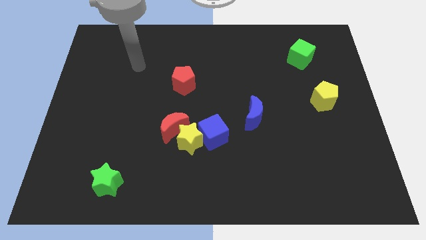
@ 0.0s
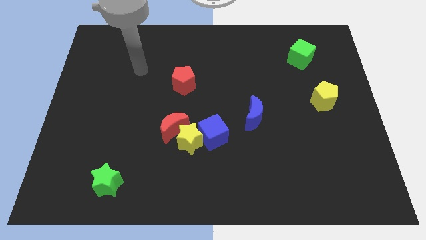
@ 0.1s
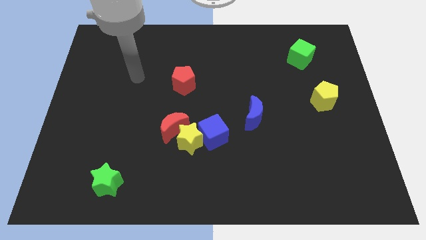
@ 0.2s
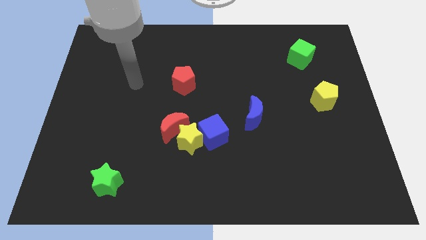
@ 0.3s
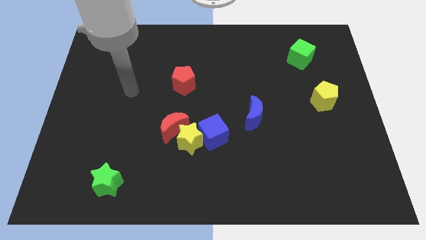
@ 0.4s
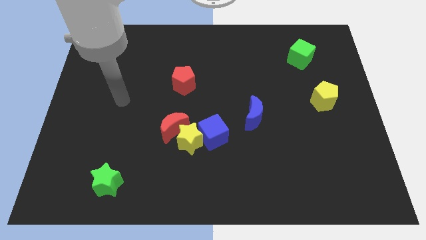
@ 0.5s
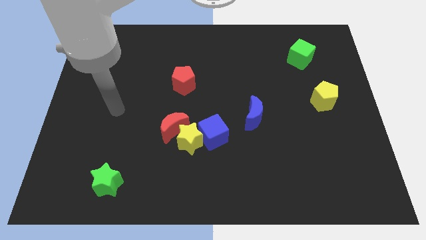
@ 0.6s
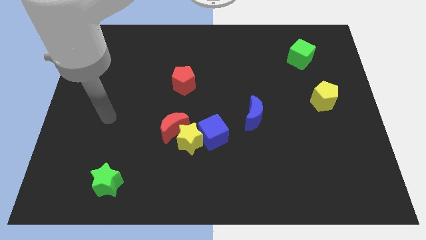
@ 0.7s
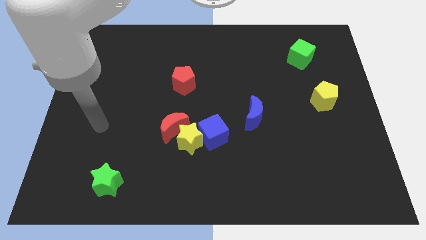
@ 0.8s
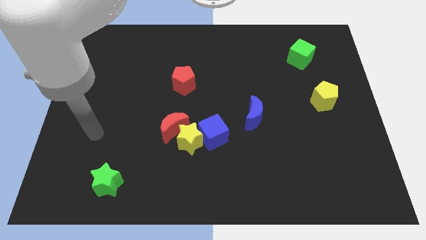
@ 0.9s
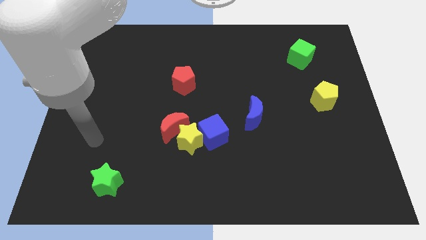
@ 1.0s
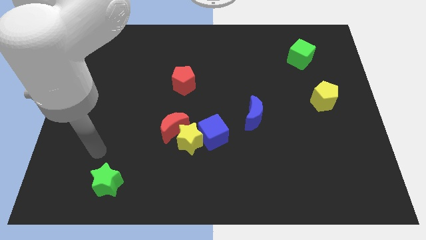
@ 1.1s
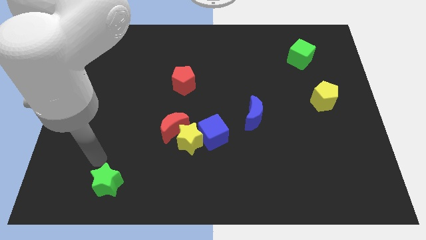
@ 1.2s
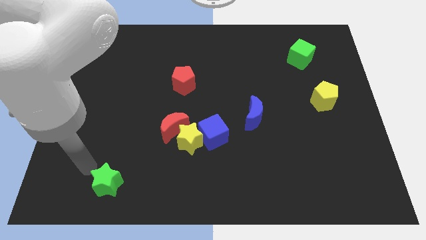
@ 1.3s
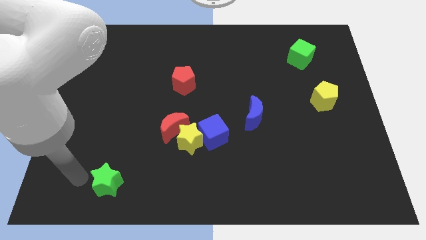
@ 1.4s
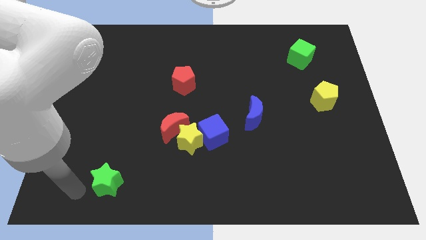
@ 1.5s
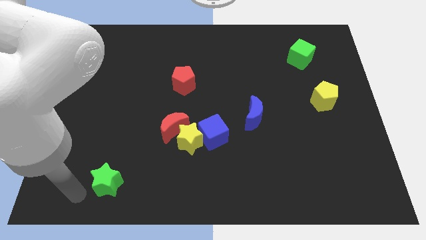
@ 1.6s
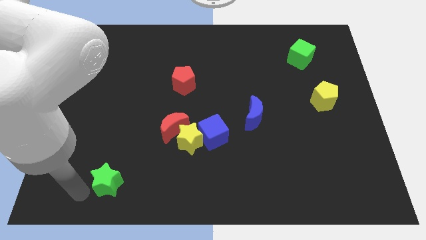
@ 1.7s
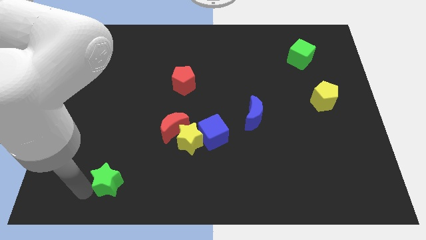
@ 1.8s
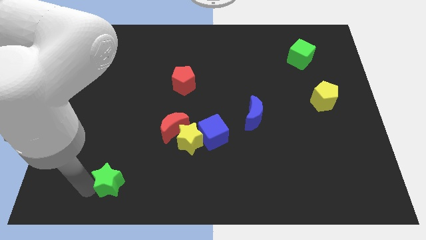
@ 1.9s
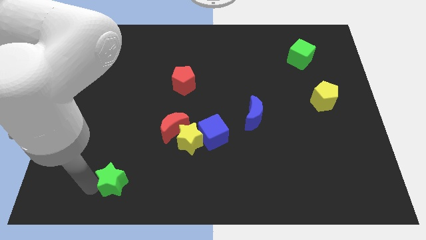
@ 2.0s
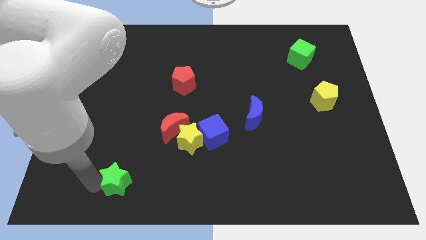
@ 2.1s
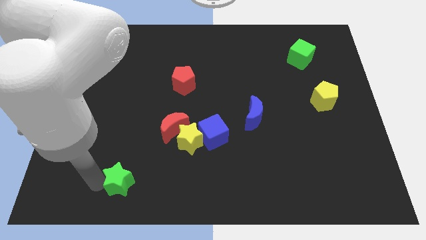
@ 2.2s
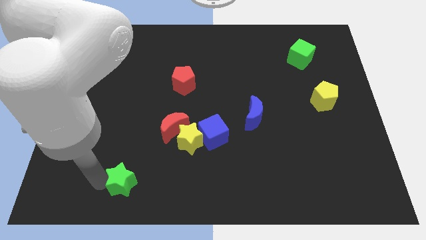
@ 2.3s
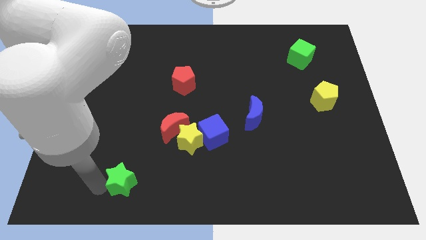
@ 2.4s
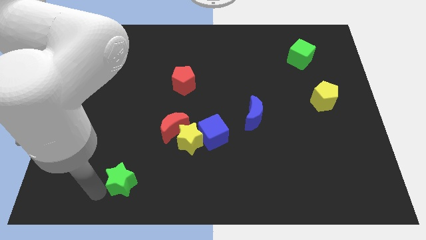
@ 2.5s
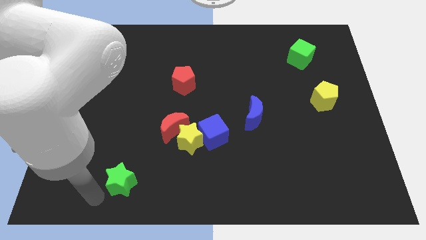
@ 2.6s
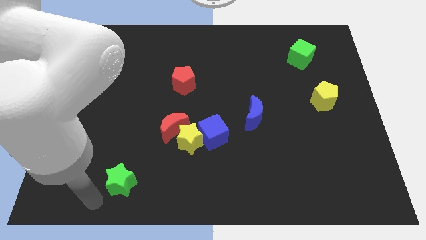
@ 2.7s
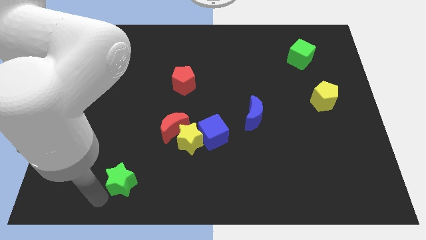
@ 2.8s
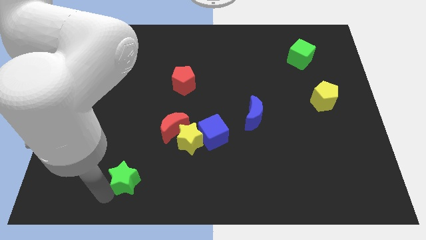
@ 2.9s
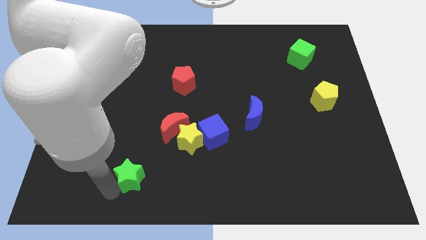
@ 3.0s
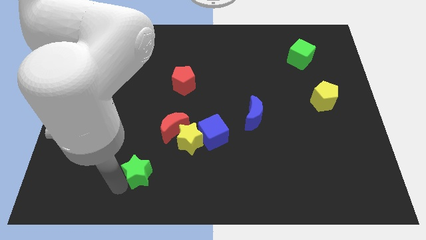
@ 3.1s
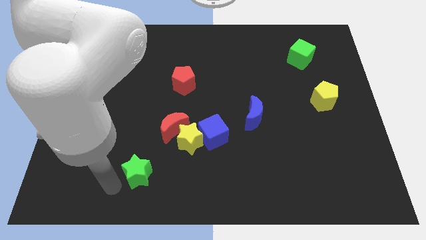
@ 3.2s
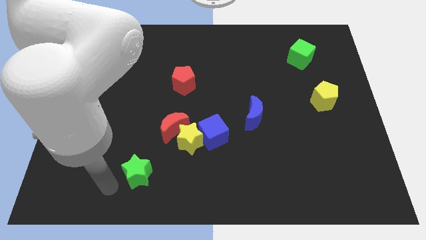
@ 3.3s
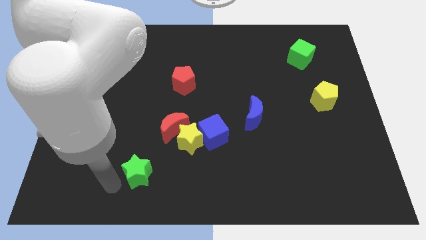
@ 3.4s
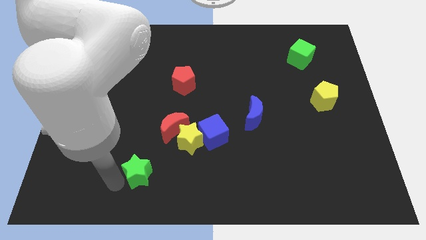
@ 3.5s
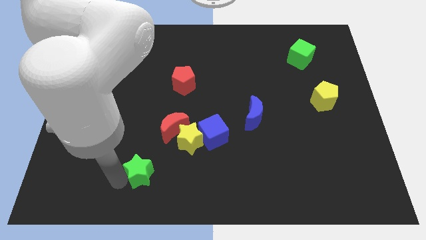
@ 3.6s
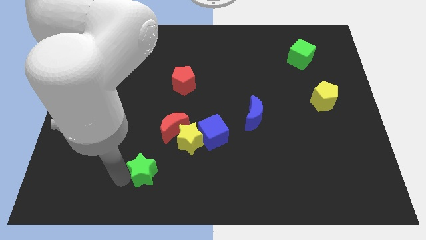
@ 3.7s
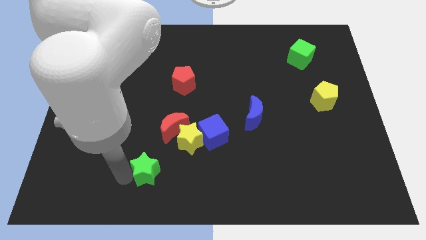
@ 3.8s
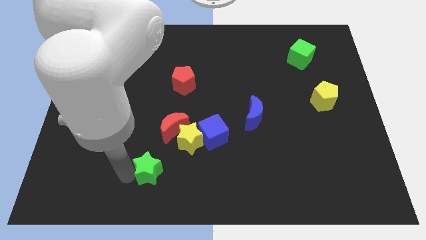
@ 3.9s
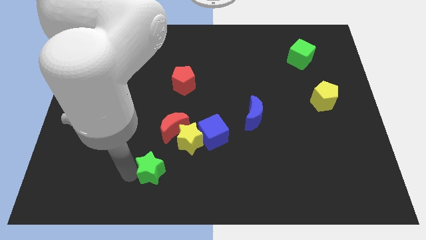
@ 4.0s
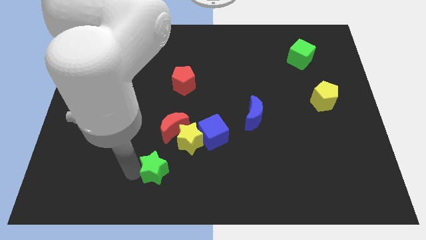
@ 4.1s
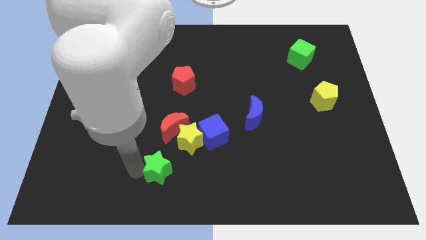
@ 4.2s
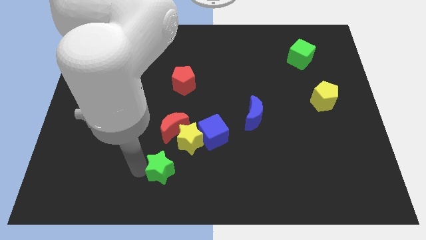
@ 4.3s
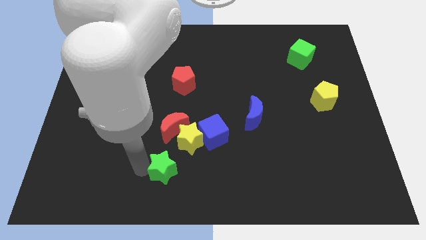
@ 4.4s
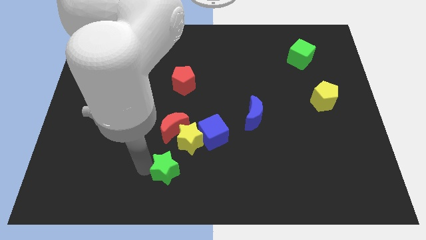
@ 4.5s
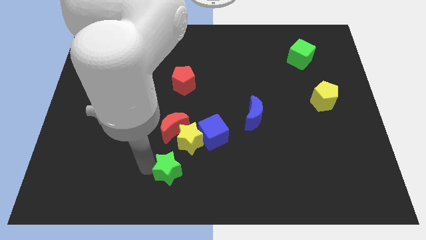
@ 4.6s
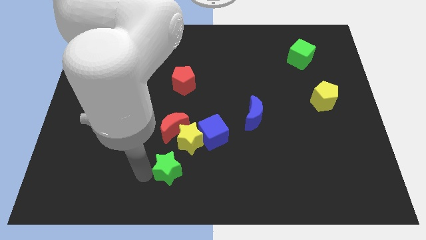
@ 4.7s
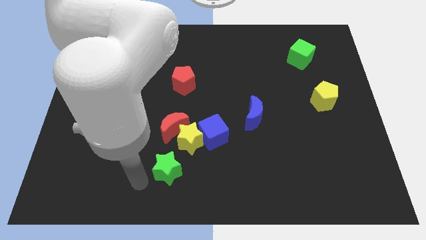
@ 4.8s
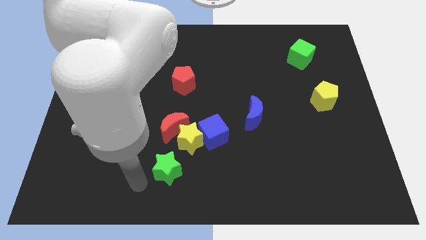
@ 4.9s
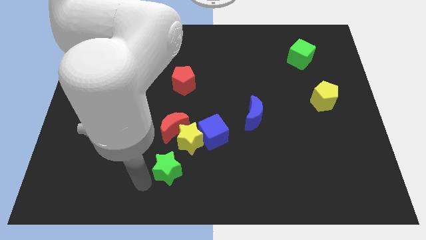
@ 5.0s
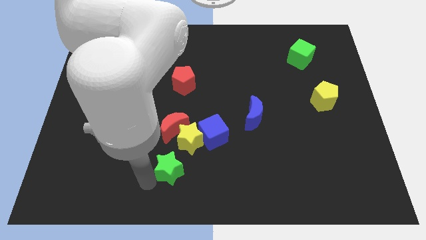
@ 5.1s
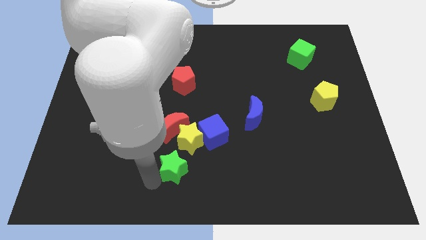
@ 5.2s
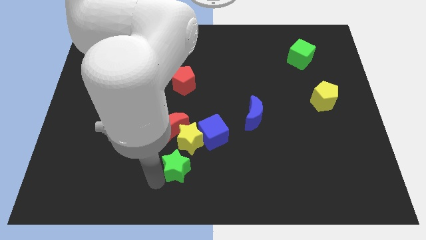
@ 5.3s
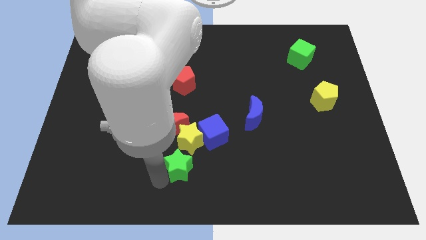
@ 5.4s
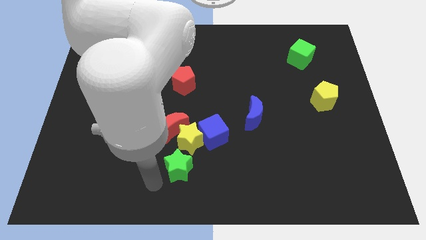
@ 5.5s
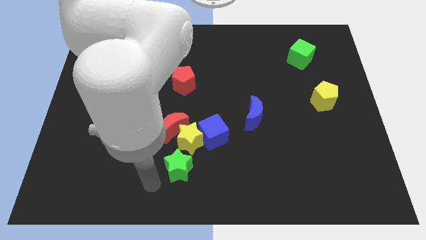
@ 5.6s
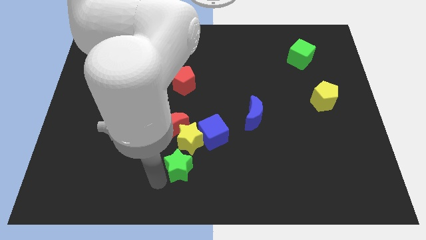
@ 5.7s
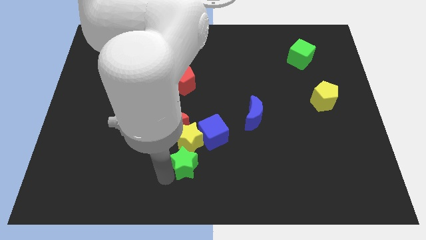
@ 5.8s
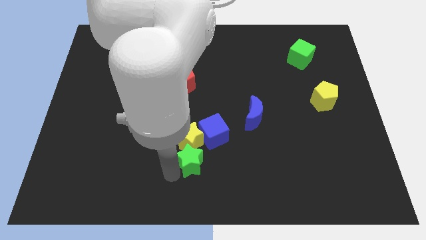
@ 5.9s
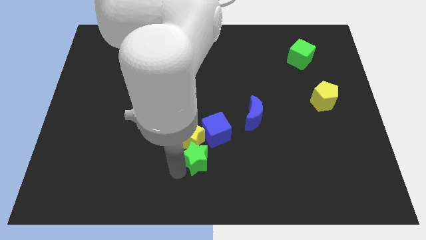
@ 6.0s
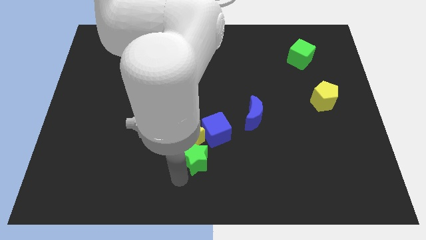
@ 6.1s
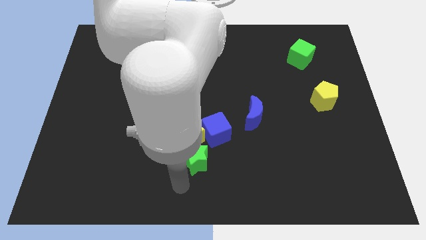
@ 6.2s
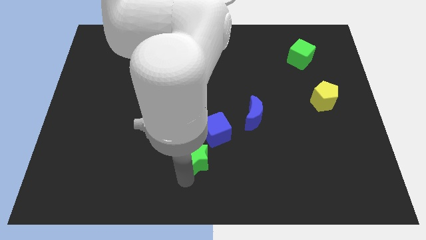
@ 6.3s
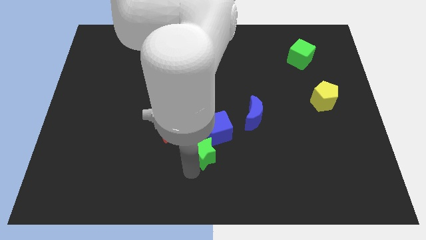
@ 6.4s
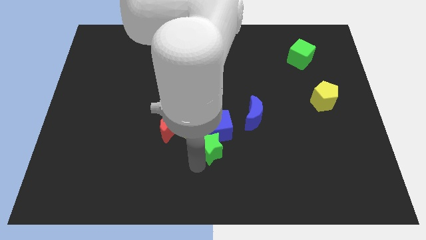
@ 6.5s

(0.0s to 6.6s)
slide the green star towards the blue cube
